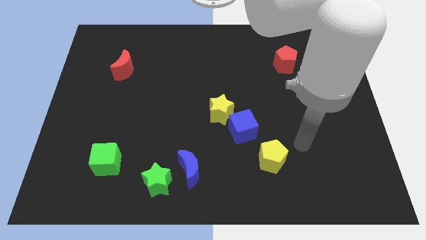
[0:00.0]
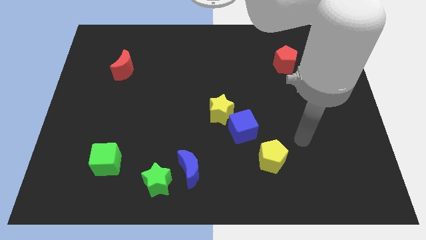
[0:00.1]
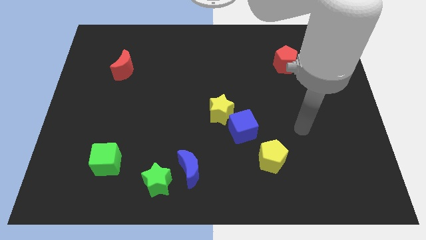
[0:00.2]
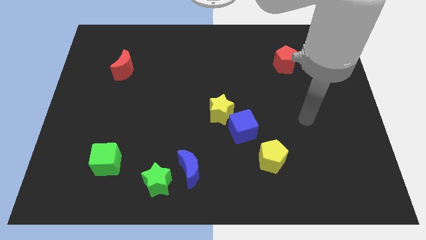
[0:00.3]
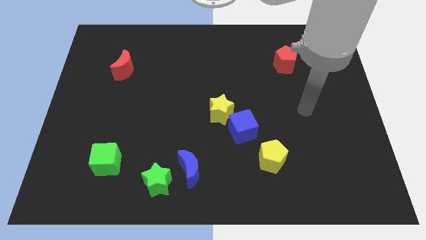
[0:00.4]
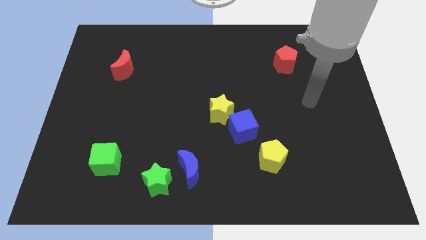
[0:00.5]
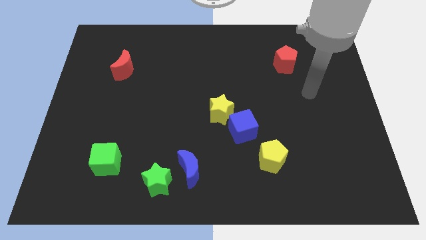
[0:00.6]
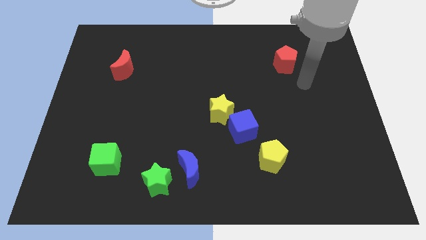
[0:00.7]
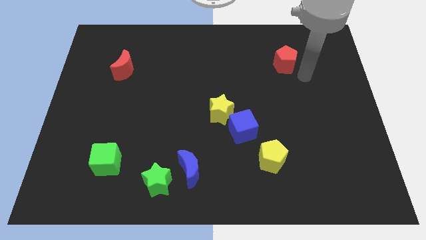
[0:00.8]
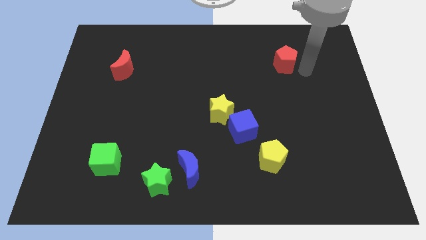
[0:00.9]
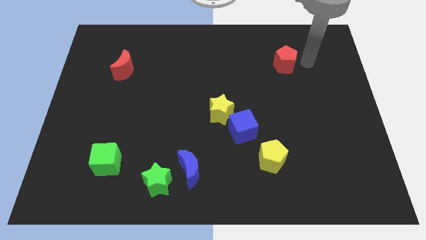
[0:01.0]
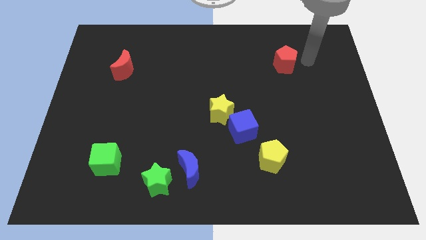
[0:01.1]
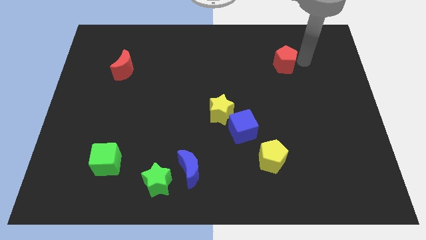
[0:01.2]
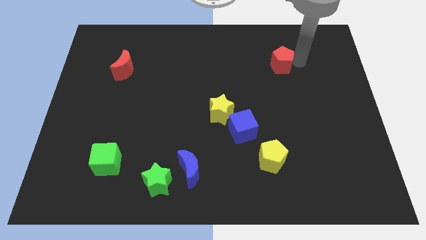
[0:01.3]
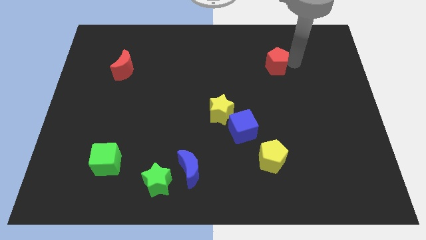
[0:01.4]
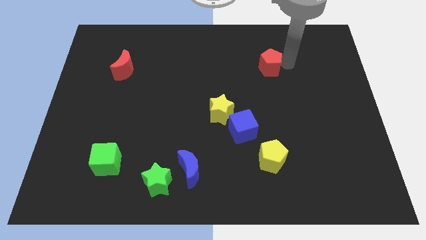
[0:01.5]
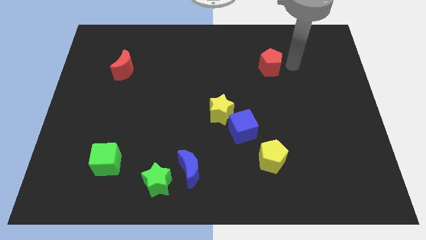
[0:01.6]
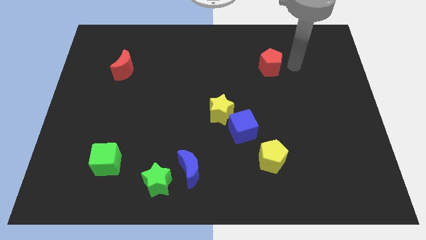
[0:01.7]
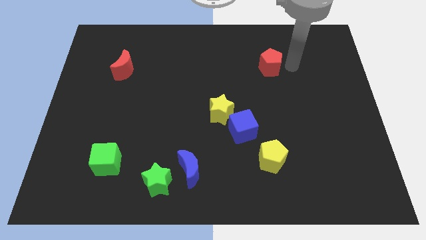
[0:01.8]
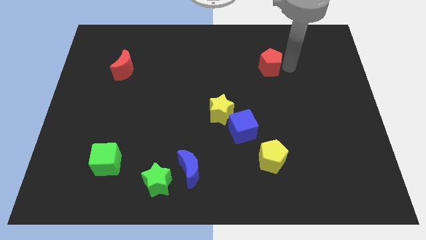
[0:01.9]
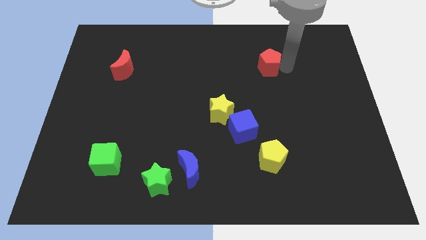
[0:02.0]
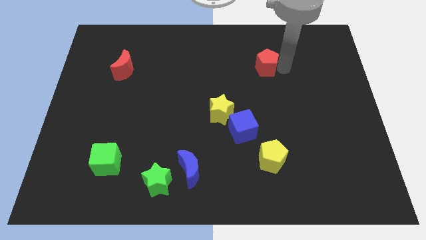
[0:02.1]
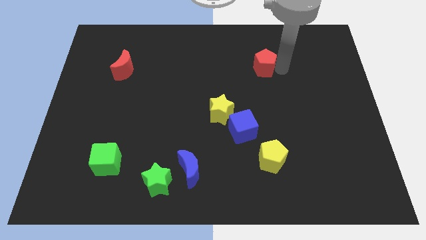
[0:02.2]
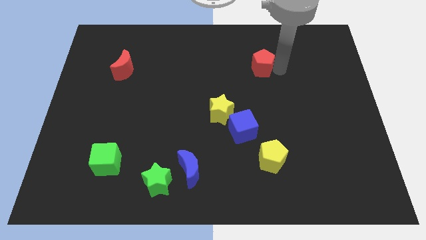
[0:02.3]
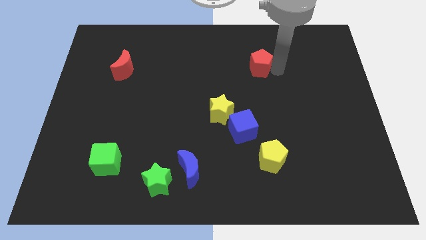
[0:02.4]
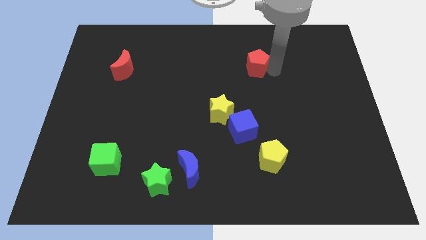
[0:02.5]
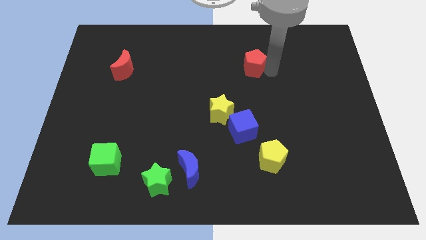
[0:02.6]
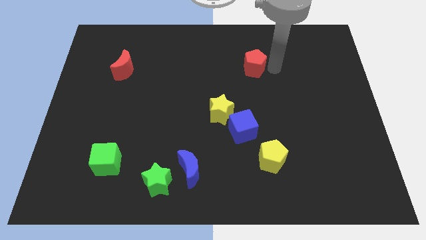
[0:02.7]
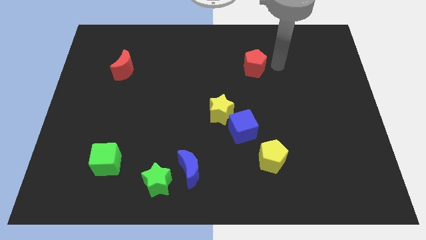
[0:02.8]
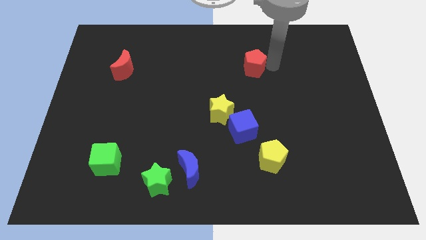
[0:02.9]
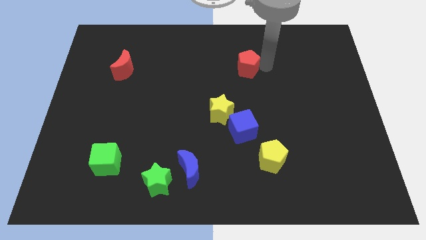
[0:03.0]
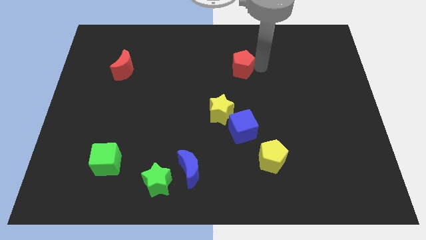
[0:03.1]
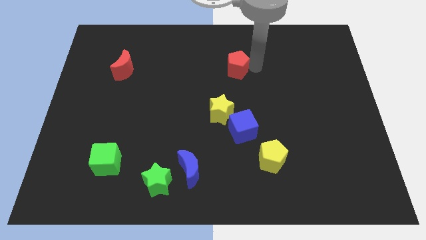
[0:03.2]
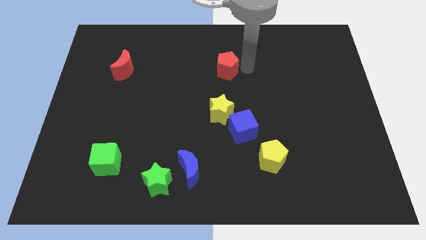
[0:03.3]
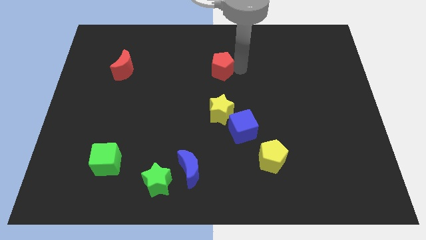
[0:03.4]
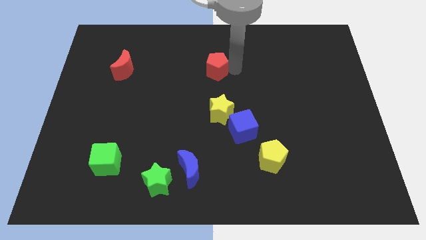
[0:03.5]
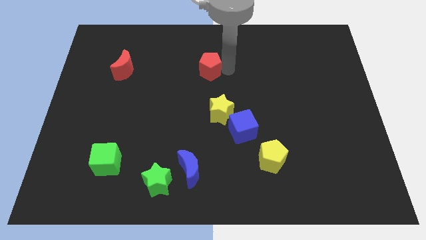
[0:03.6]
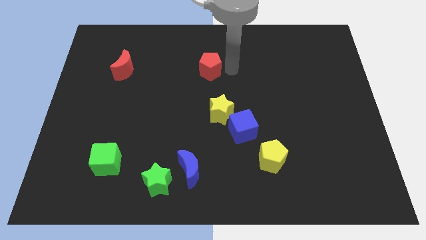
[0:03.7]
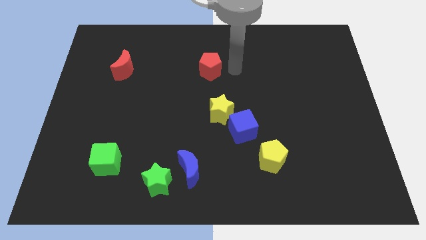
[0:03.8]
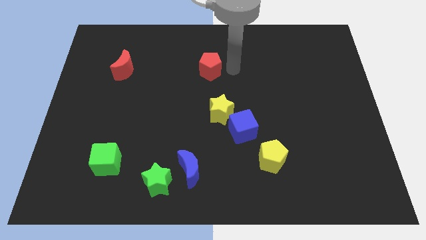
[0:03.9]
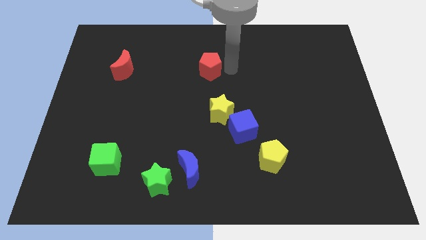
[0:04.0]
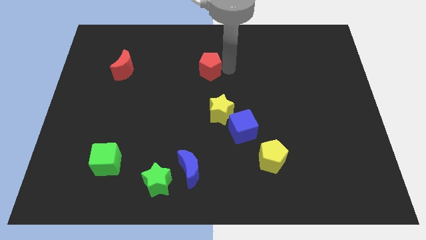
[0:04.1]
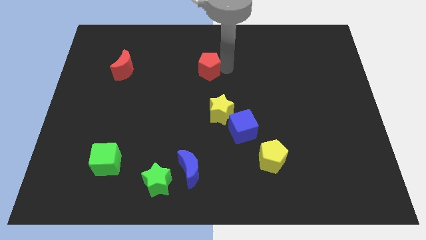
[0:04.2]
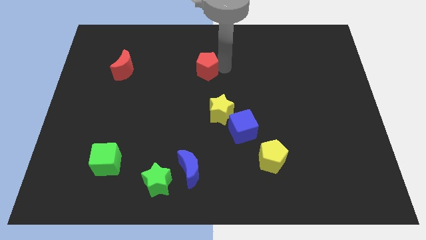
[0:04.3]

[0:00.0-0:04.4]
move the red pentagon to the left

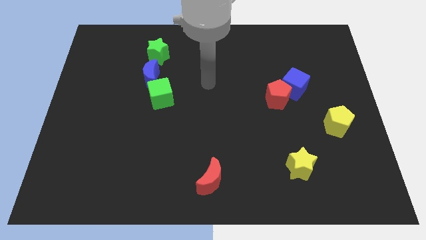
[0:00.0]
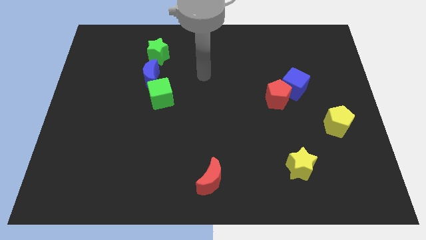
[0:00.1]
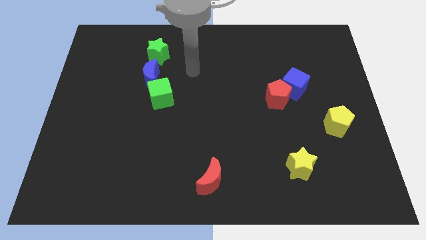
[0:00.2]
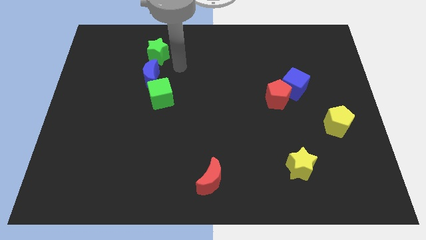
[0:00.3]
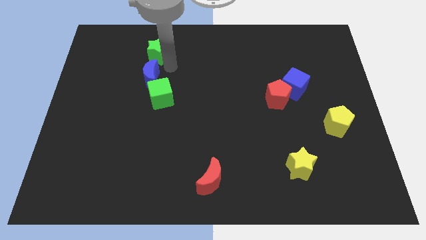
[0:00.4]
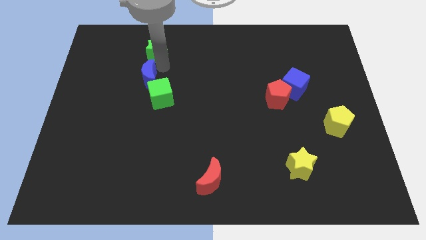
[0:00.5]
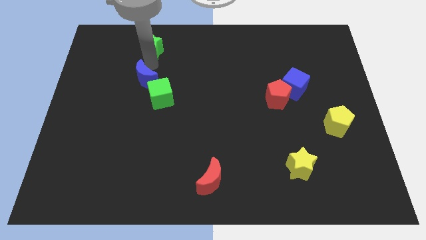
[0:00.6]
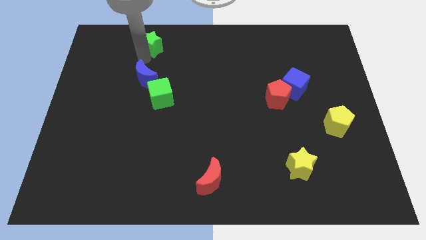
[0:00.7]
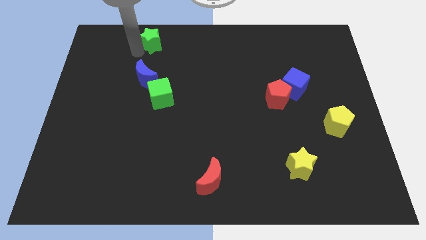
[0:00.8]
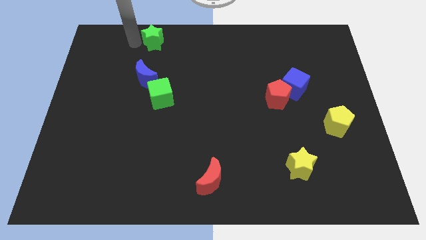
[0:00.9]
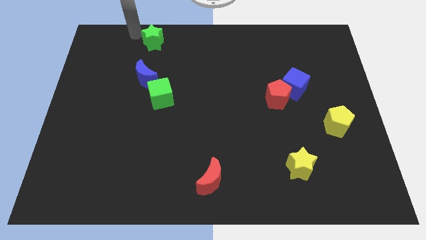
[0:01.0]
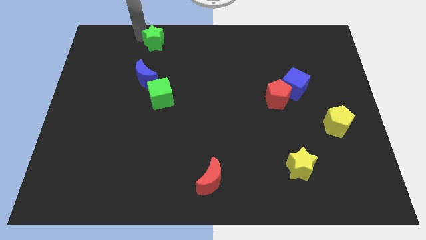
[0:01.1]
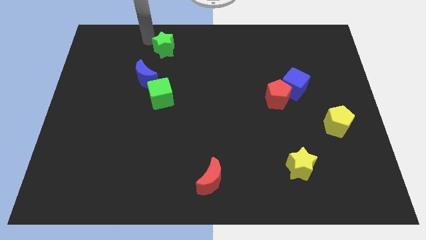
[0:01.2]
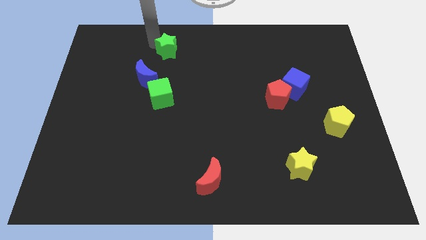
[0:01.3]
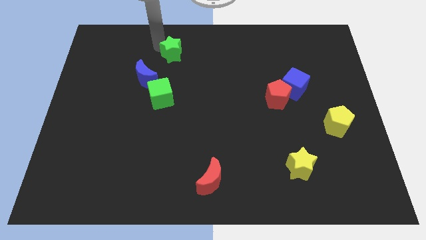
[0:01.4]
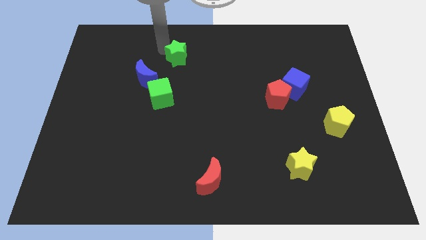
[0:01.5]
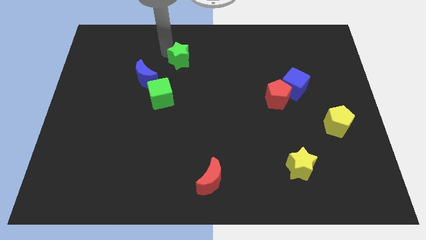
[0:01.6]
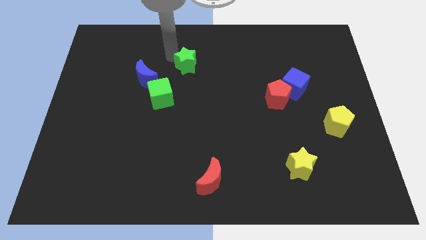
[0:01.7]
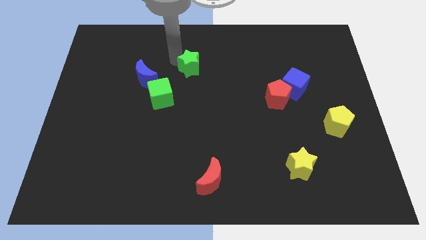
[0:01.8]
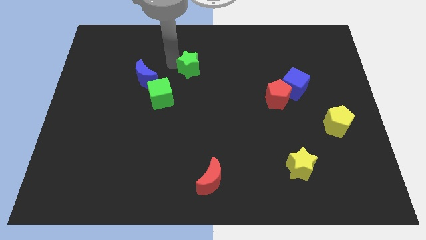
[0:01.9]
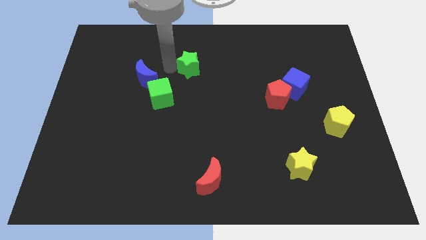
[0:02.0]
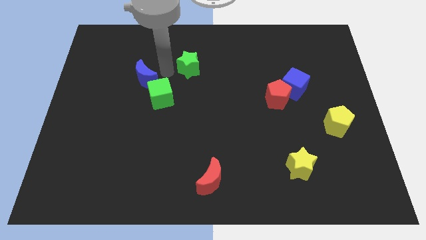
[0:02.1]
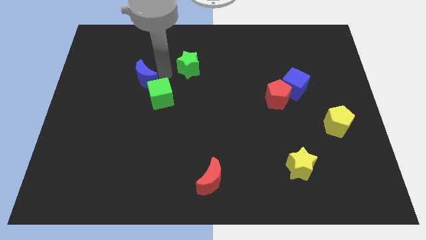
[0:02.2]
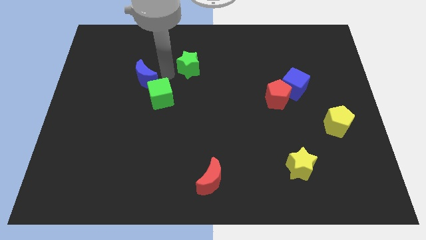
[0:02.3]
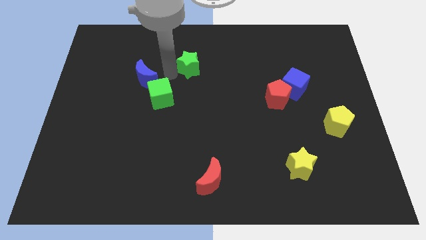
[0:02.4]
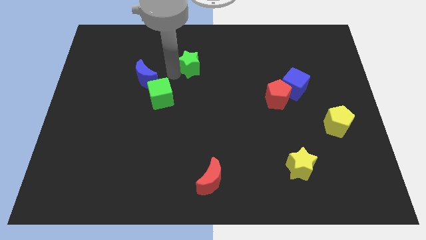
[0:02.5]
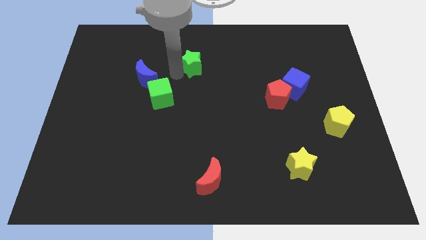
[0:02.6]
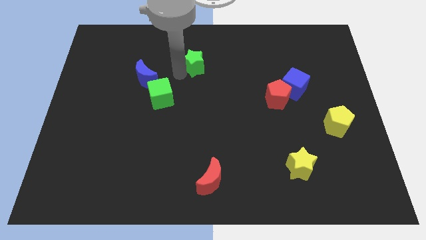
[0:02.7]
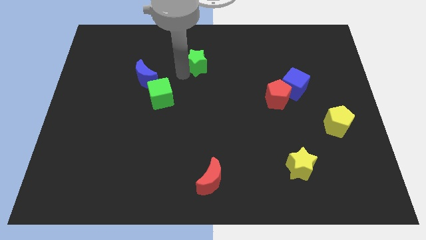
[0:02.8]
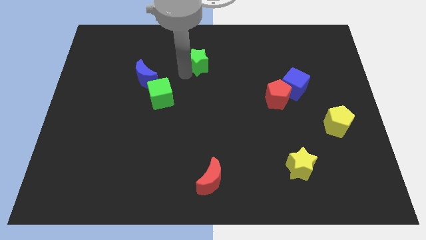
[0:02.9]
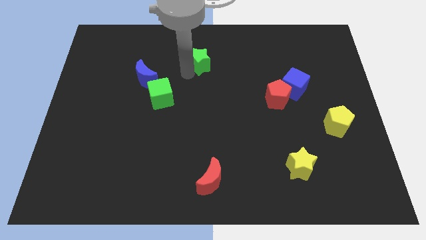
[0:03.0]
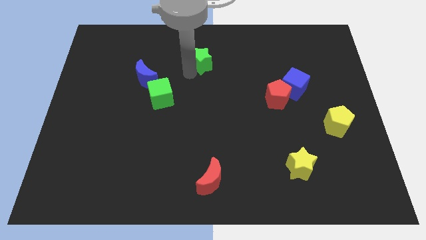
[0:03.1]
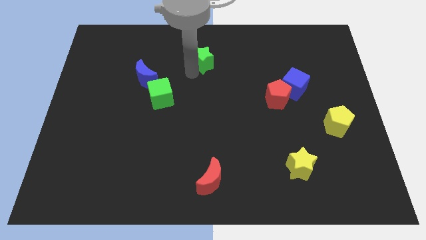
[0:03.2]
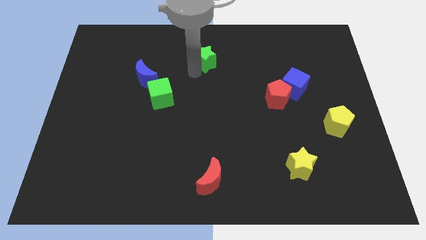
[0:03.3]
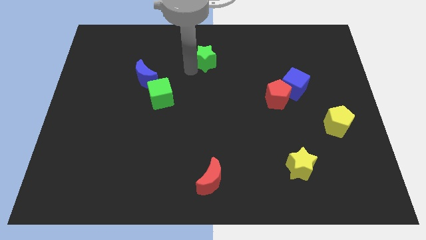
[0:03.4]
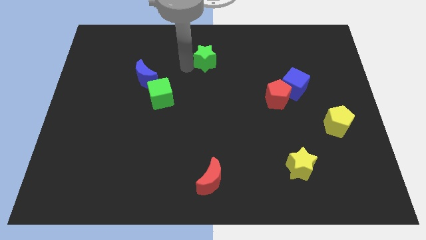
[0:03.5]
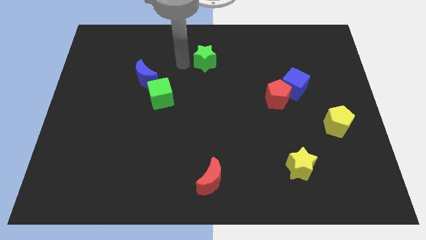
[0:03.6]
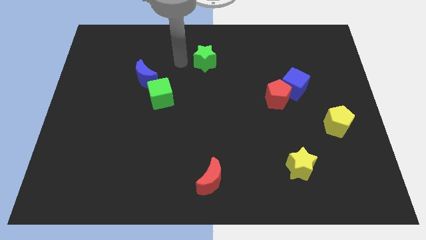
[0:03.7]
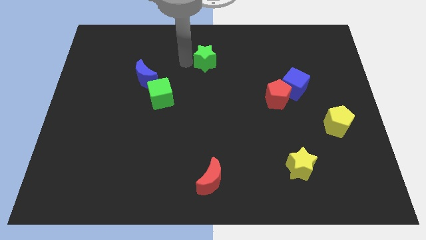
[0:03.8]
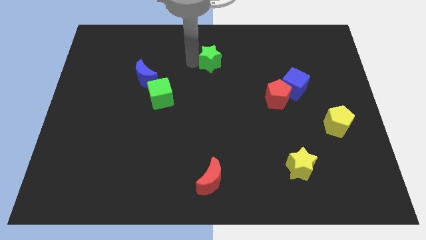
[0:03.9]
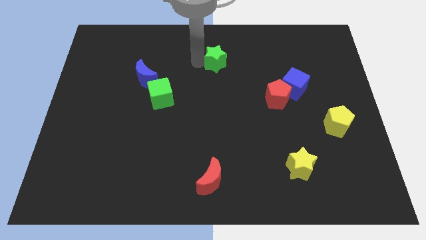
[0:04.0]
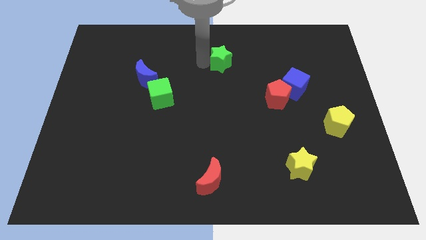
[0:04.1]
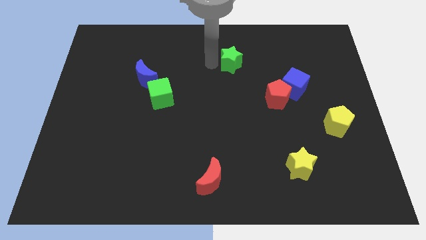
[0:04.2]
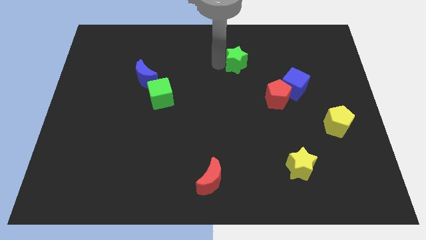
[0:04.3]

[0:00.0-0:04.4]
slide the green star right
